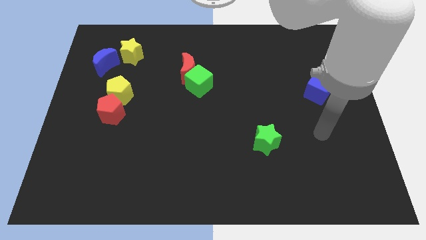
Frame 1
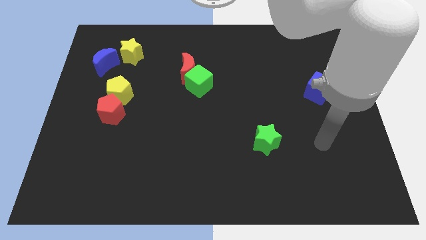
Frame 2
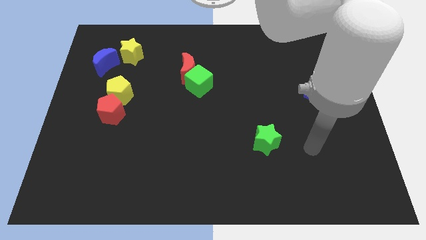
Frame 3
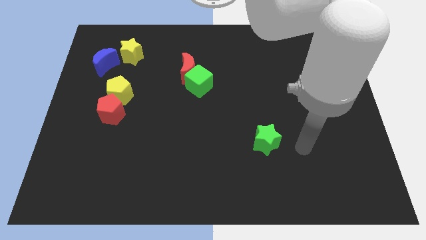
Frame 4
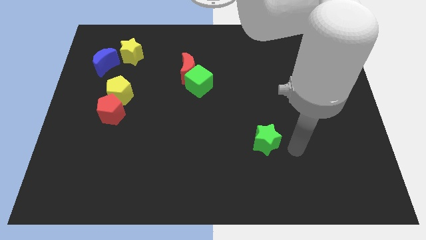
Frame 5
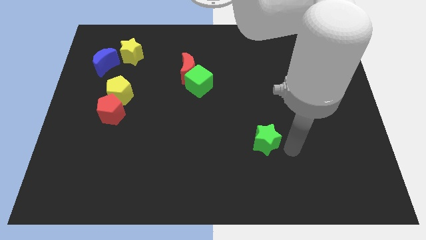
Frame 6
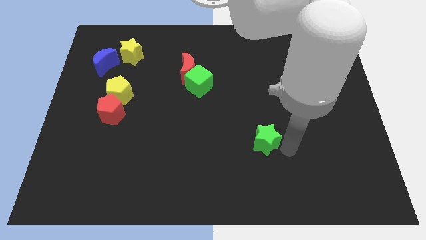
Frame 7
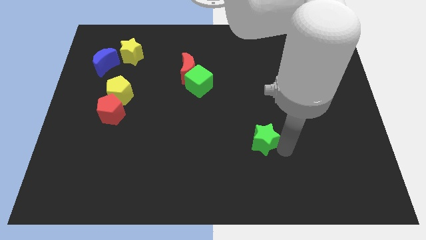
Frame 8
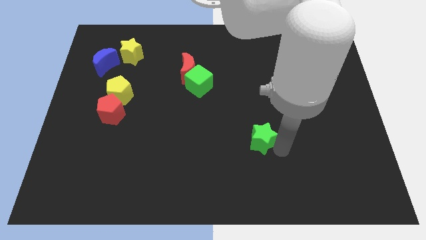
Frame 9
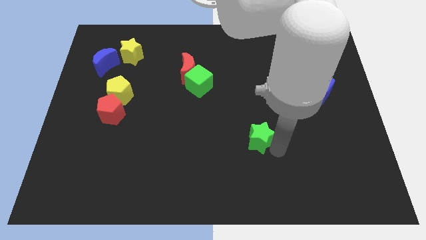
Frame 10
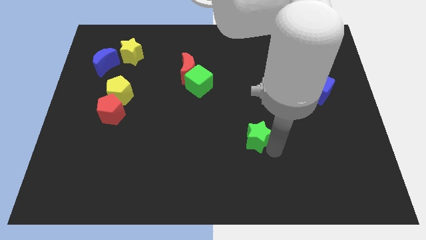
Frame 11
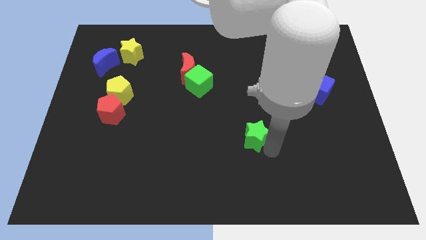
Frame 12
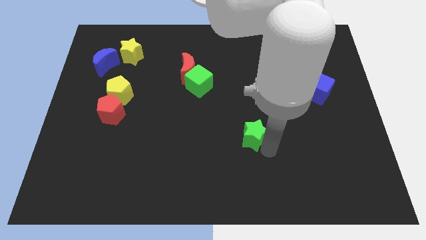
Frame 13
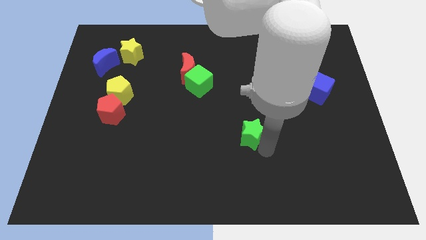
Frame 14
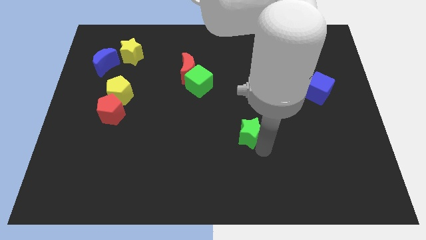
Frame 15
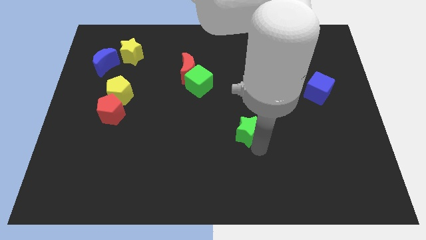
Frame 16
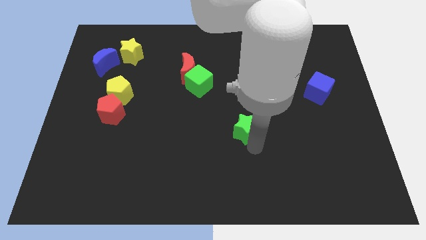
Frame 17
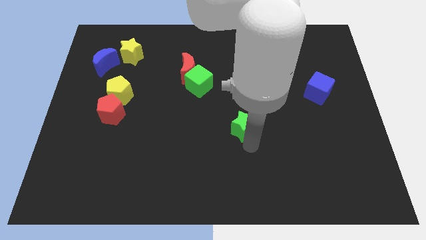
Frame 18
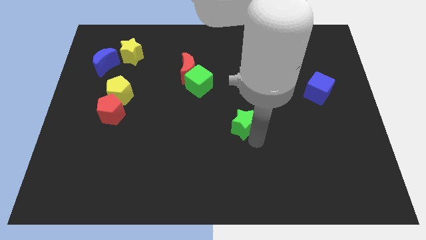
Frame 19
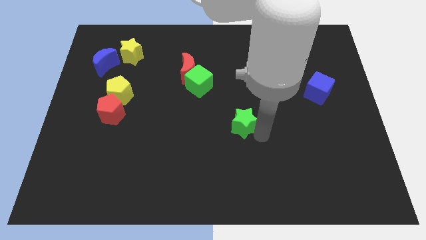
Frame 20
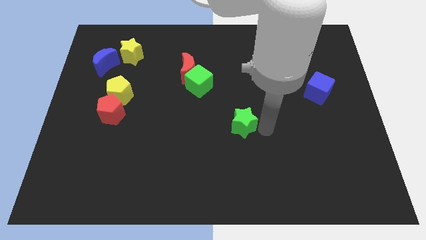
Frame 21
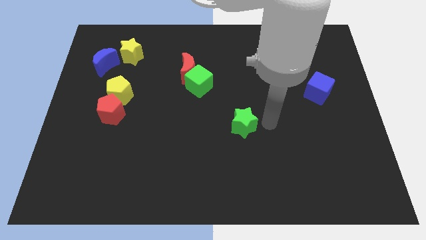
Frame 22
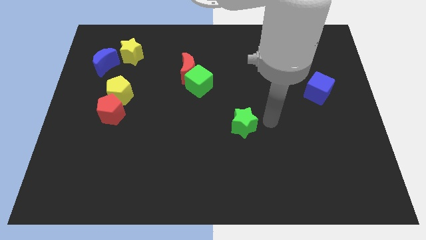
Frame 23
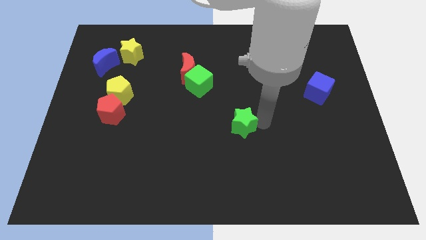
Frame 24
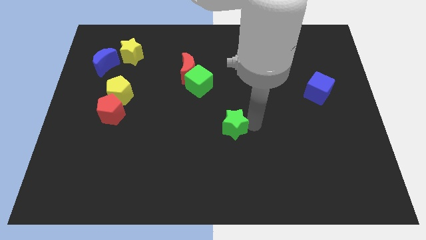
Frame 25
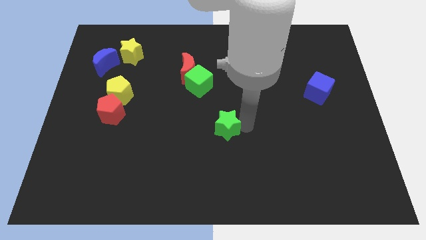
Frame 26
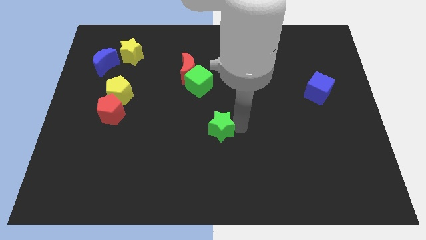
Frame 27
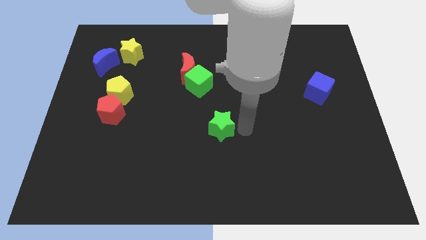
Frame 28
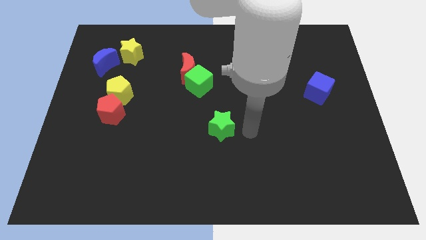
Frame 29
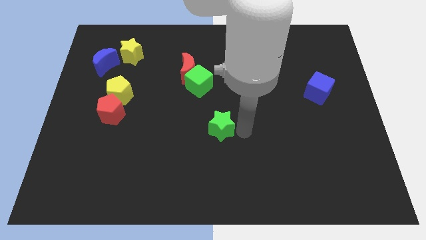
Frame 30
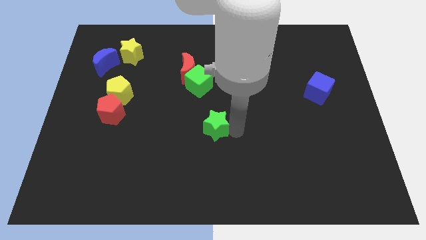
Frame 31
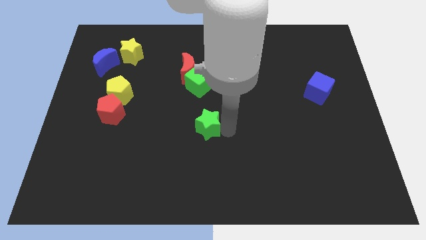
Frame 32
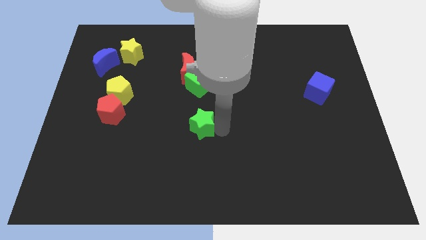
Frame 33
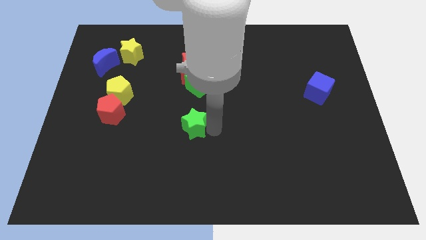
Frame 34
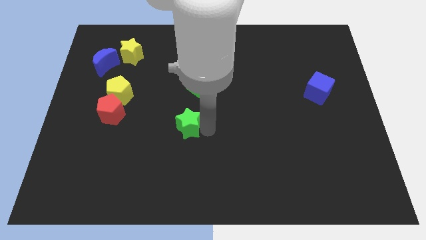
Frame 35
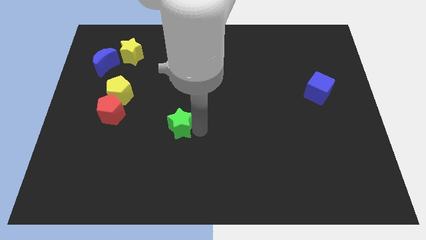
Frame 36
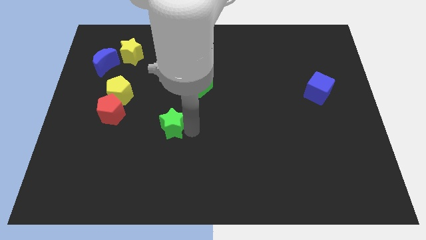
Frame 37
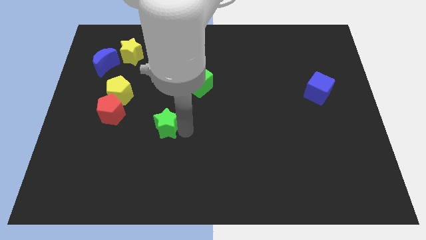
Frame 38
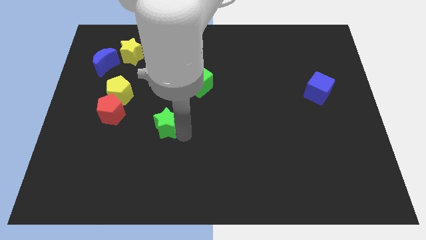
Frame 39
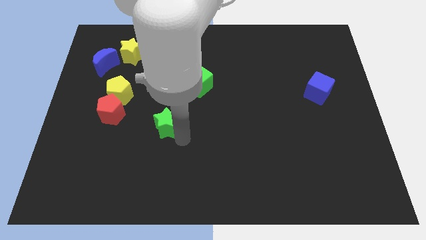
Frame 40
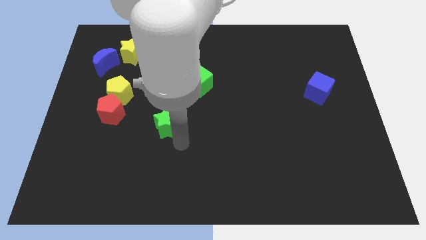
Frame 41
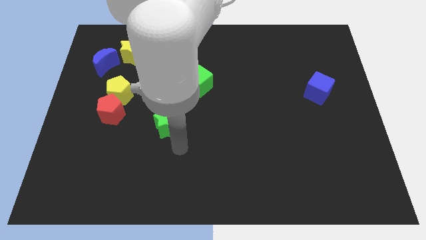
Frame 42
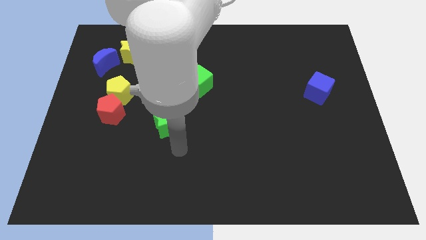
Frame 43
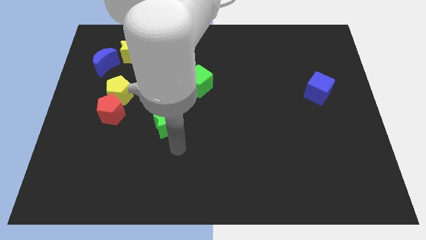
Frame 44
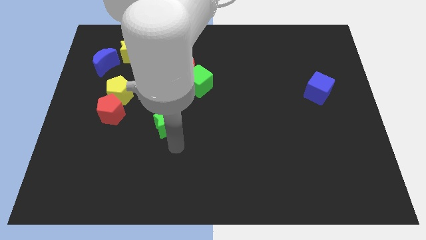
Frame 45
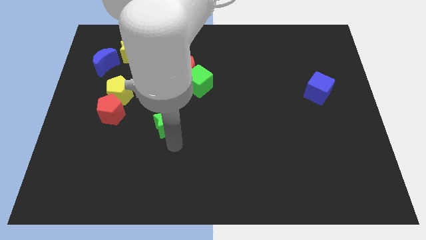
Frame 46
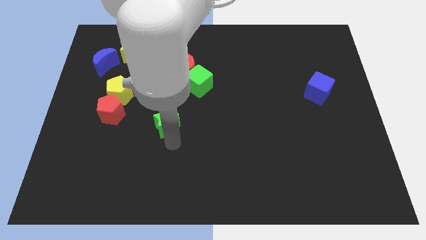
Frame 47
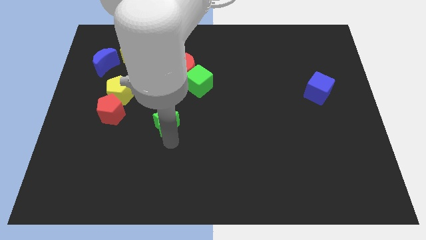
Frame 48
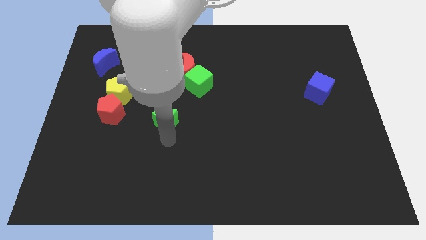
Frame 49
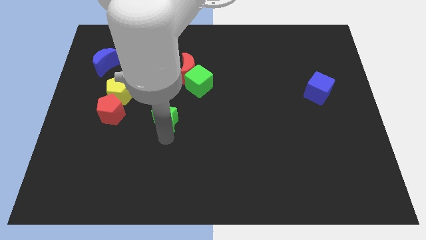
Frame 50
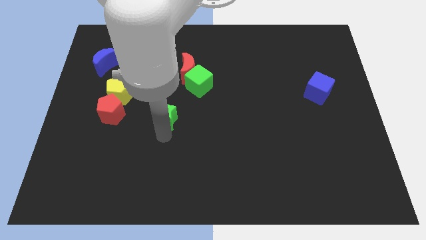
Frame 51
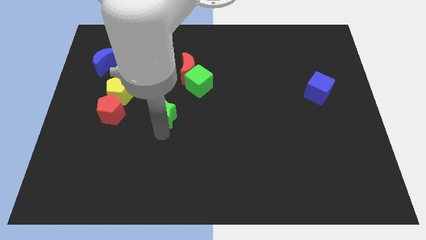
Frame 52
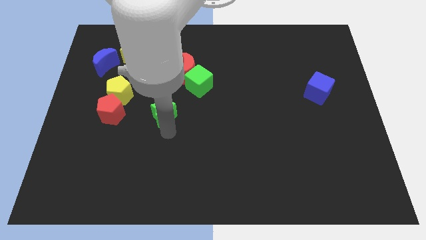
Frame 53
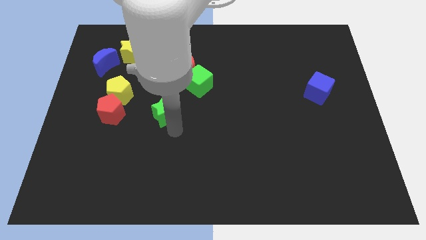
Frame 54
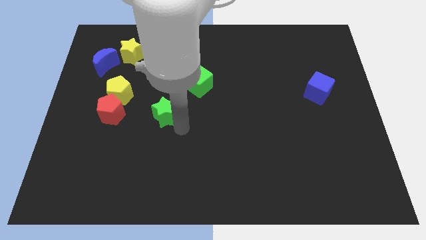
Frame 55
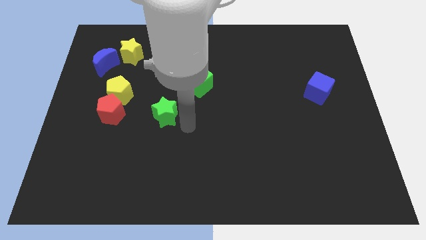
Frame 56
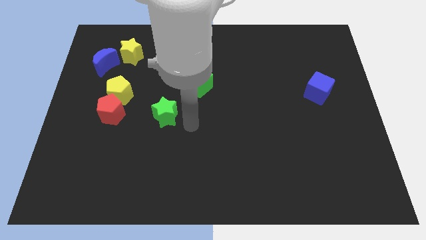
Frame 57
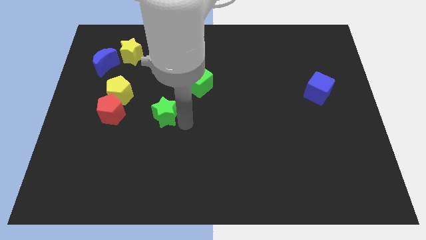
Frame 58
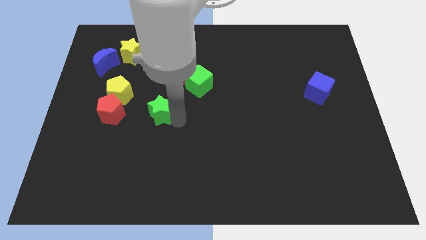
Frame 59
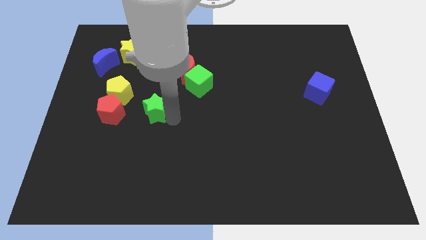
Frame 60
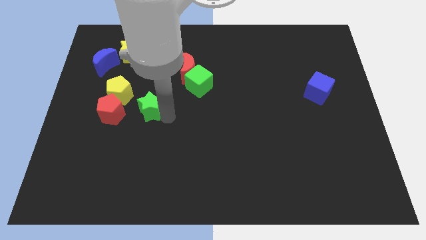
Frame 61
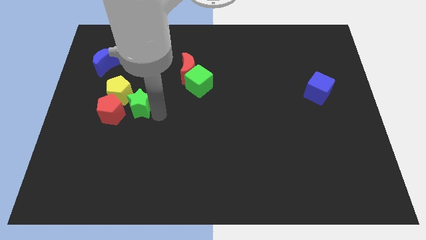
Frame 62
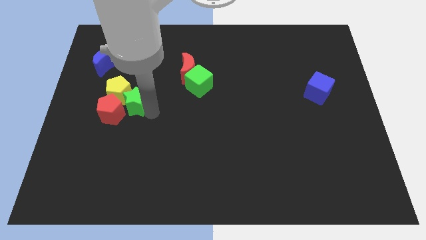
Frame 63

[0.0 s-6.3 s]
slide the green star next to the yellow pentagon
